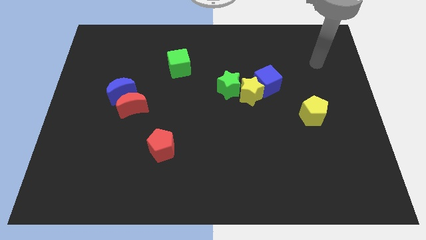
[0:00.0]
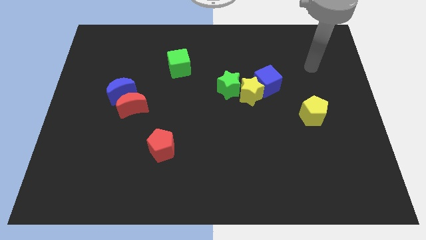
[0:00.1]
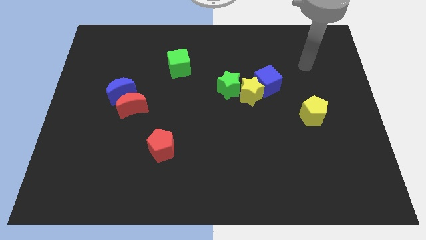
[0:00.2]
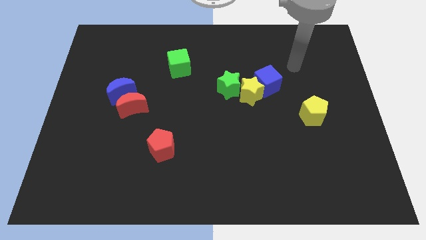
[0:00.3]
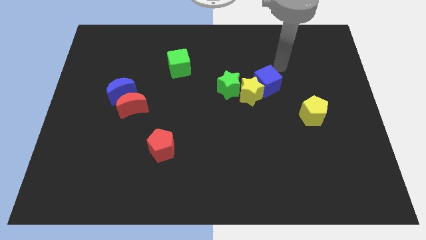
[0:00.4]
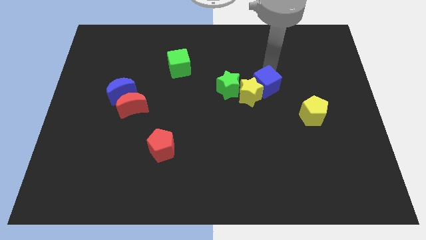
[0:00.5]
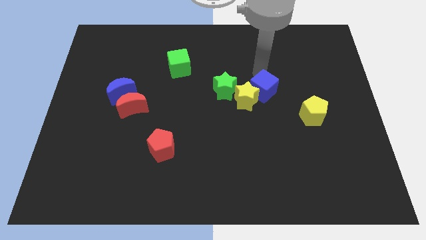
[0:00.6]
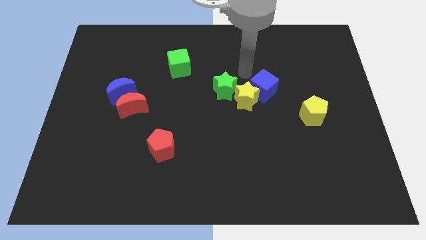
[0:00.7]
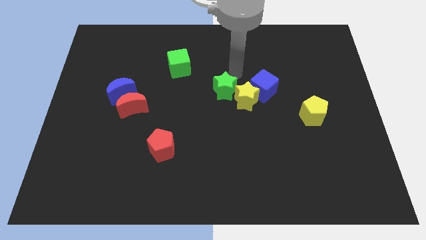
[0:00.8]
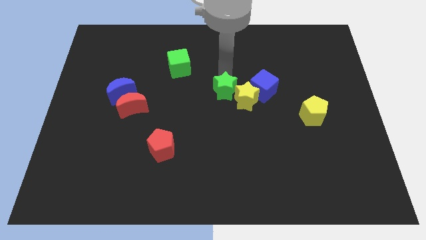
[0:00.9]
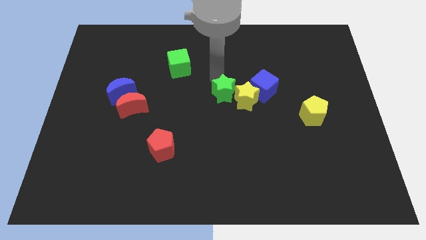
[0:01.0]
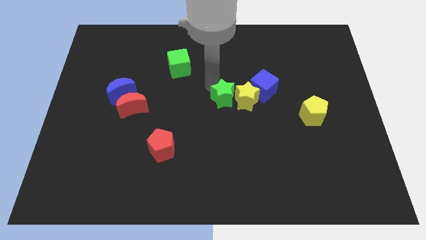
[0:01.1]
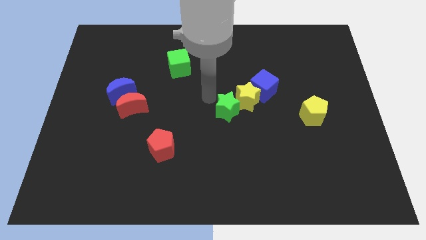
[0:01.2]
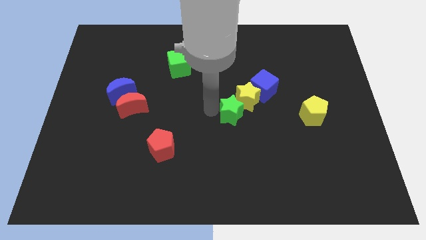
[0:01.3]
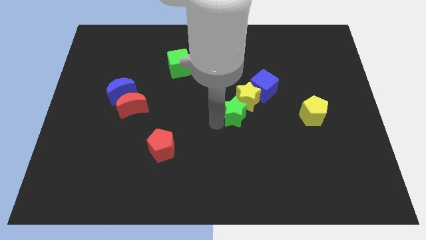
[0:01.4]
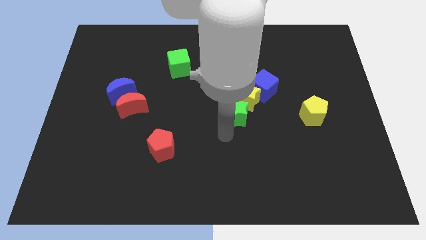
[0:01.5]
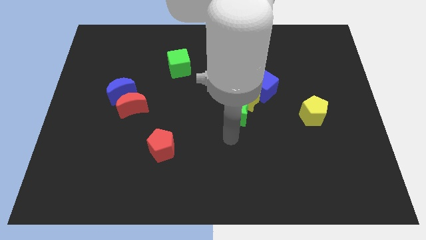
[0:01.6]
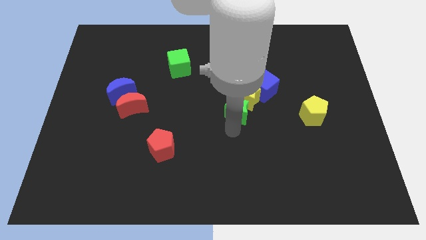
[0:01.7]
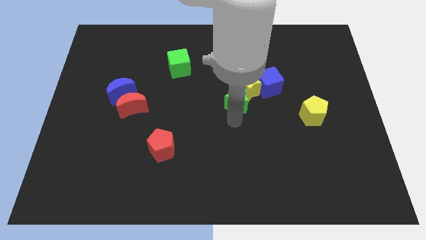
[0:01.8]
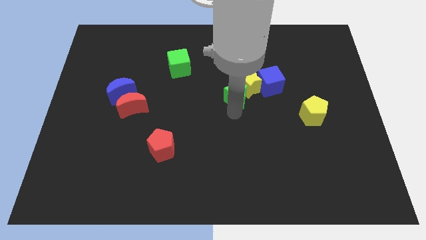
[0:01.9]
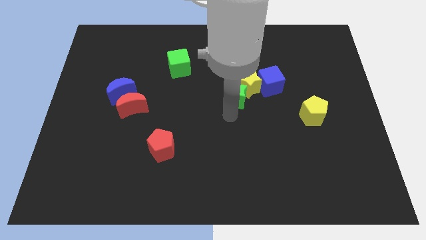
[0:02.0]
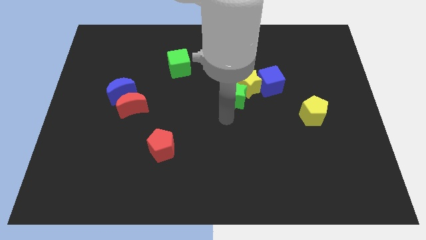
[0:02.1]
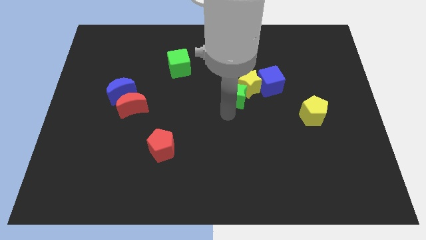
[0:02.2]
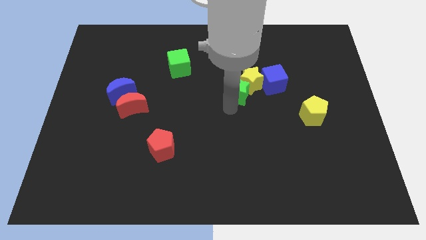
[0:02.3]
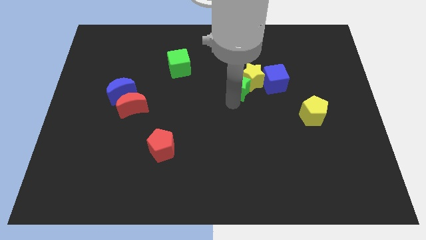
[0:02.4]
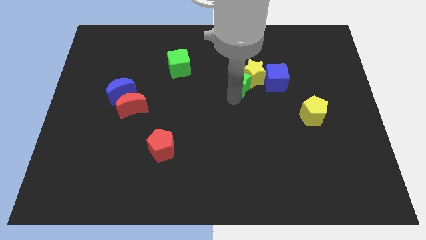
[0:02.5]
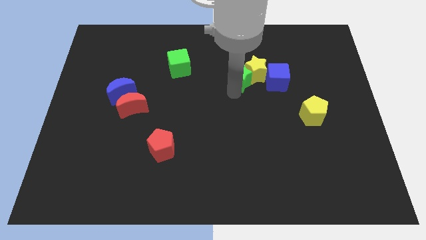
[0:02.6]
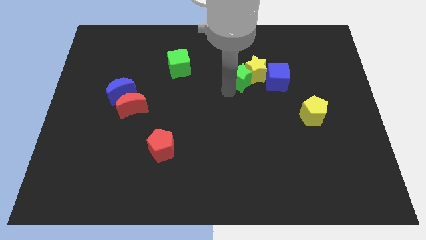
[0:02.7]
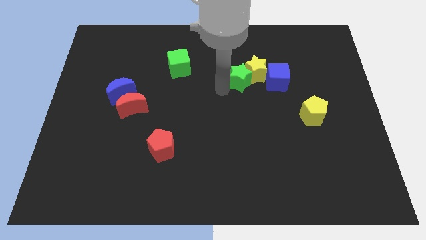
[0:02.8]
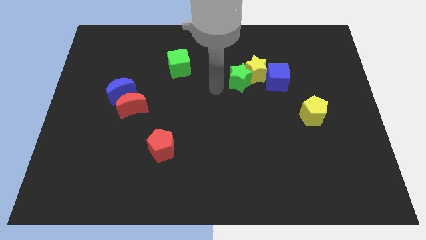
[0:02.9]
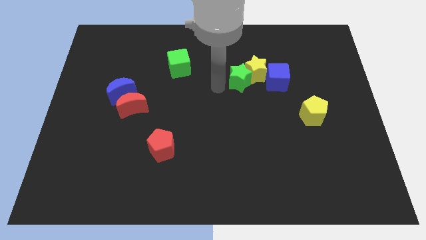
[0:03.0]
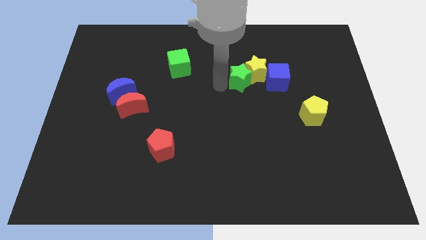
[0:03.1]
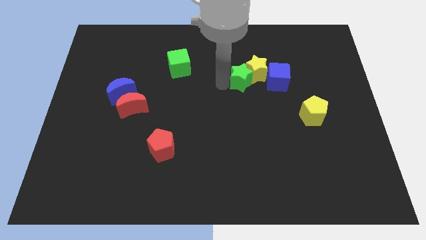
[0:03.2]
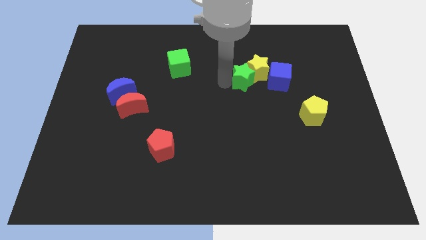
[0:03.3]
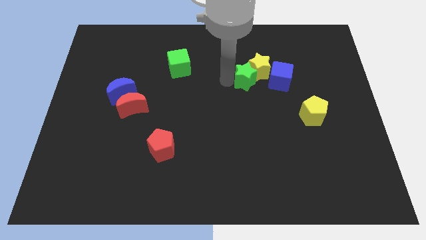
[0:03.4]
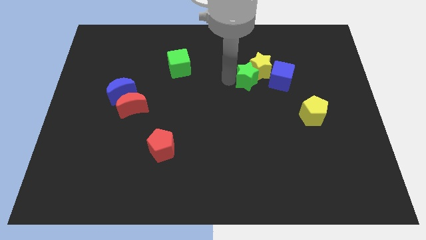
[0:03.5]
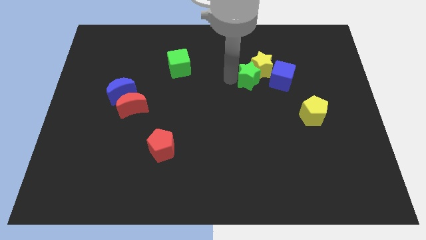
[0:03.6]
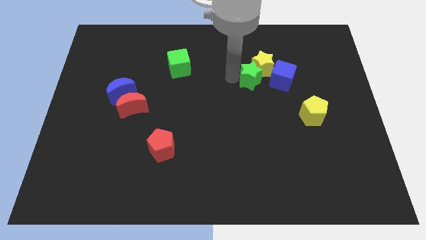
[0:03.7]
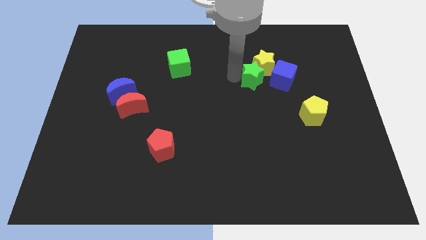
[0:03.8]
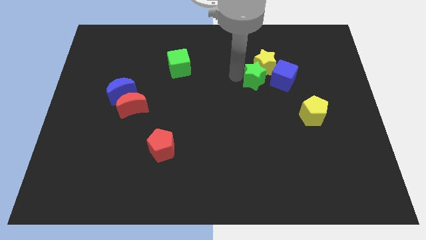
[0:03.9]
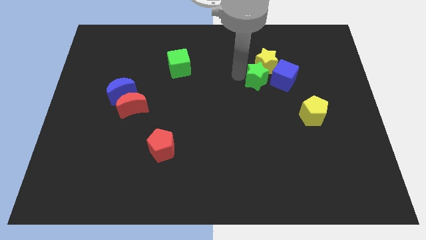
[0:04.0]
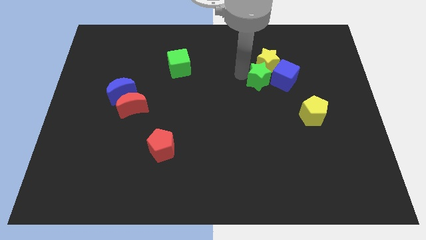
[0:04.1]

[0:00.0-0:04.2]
move the green star a little bit to the right

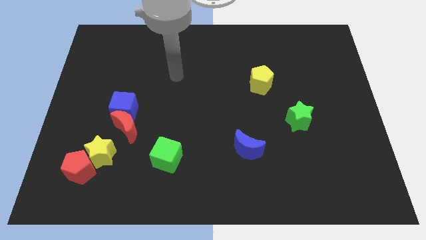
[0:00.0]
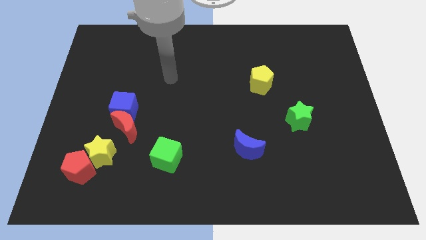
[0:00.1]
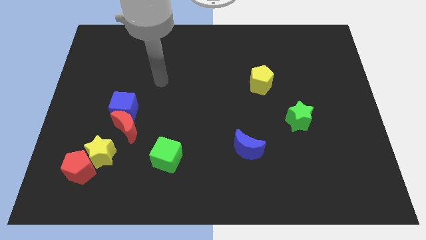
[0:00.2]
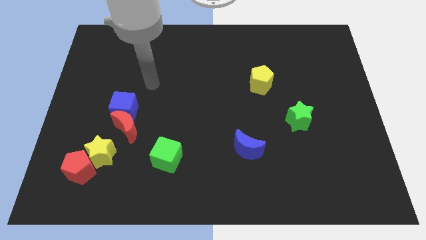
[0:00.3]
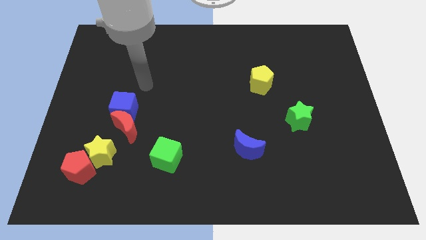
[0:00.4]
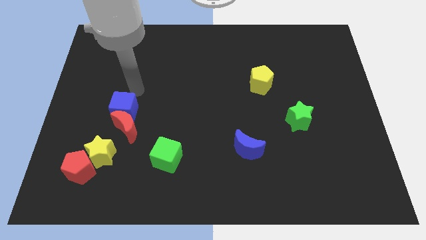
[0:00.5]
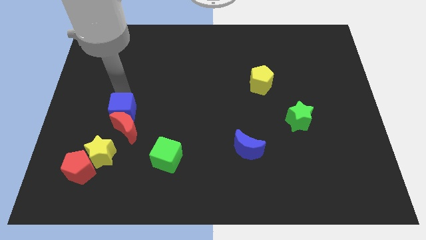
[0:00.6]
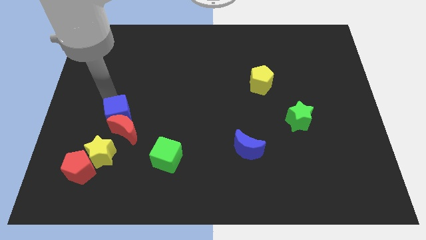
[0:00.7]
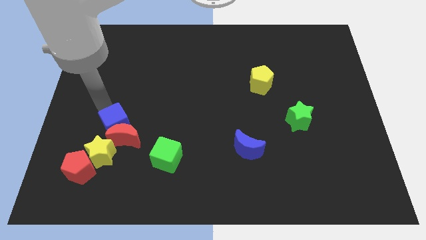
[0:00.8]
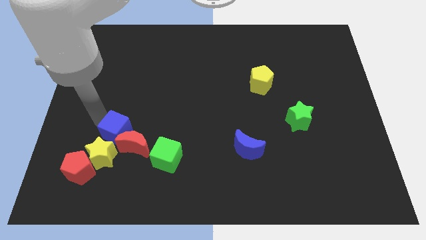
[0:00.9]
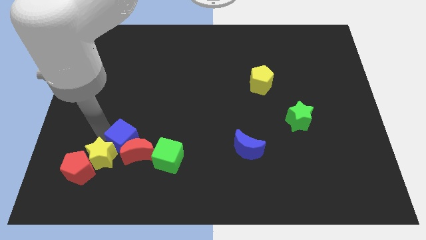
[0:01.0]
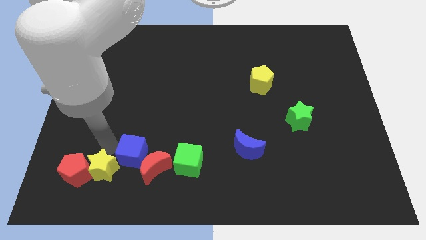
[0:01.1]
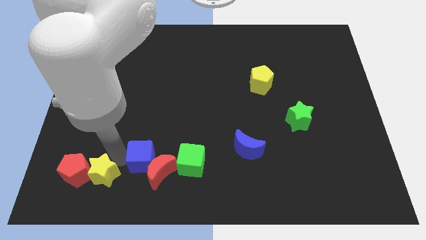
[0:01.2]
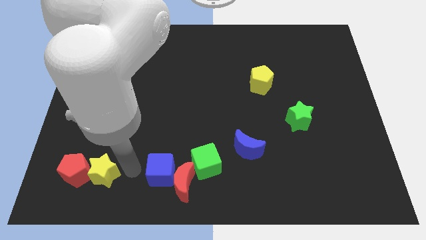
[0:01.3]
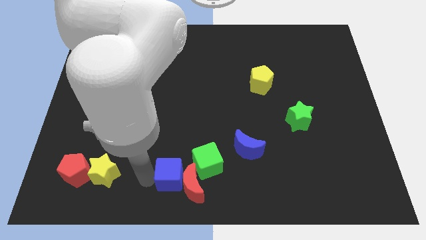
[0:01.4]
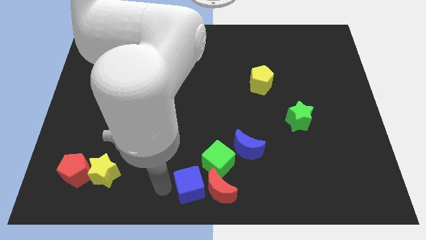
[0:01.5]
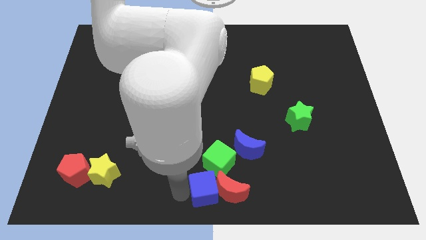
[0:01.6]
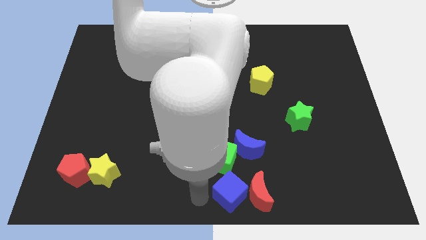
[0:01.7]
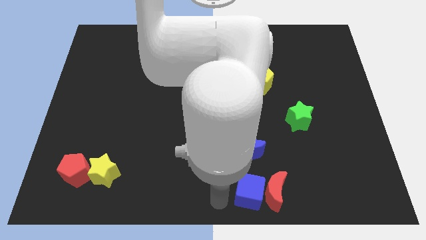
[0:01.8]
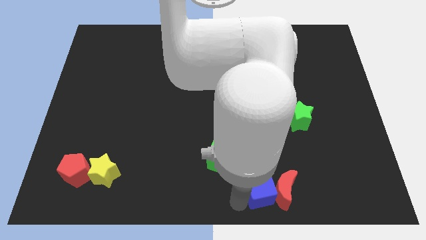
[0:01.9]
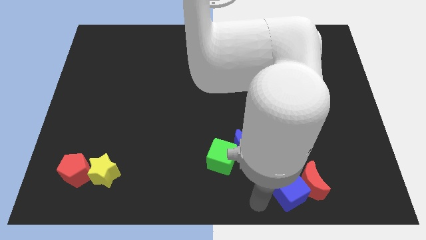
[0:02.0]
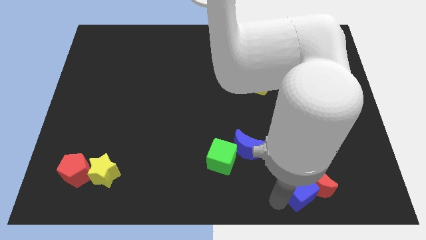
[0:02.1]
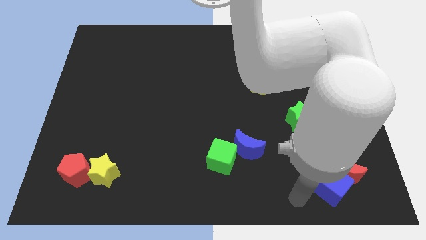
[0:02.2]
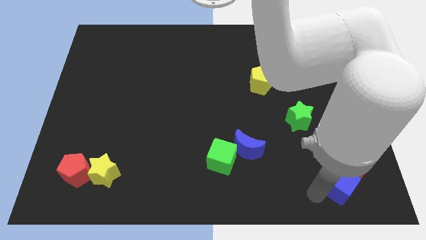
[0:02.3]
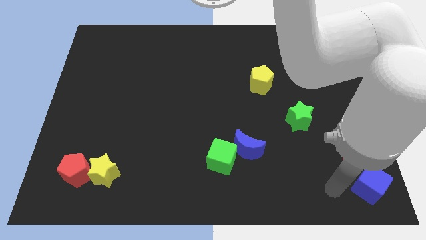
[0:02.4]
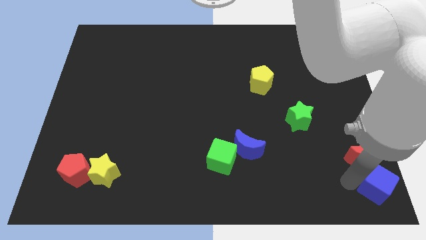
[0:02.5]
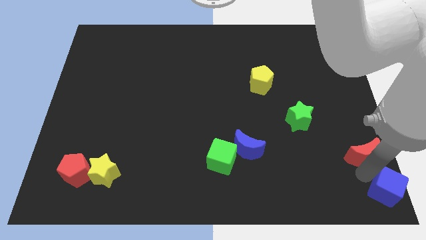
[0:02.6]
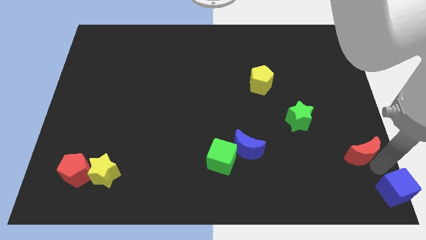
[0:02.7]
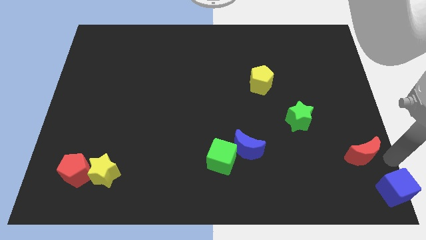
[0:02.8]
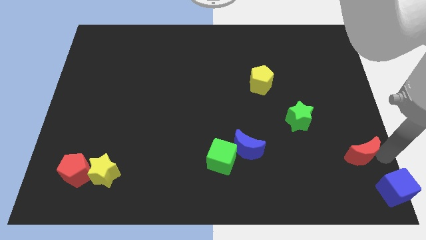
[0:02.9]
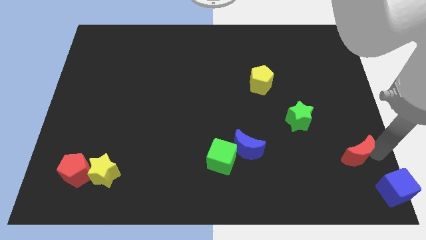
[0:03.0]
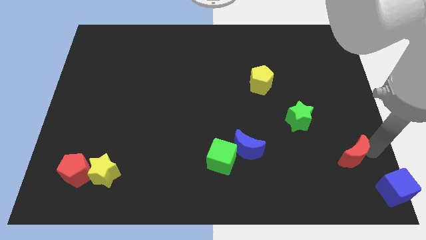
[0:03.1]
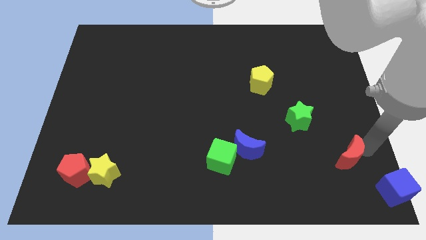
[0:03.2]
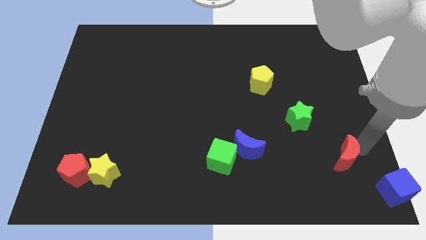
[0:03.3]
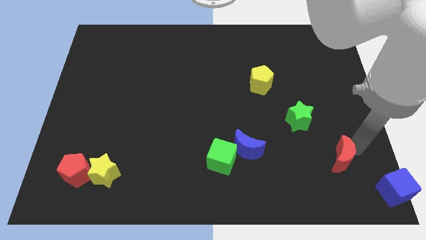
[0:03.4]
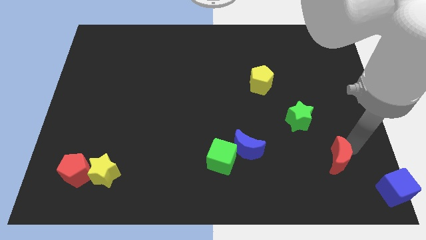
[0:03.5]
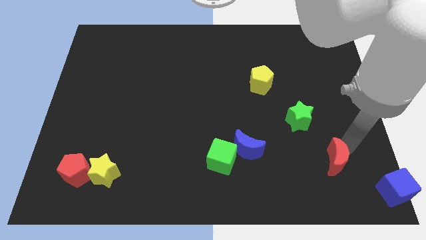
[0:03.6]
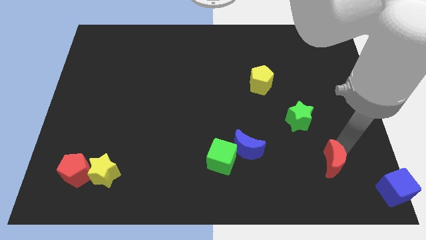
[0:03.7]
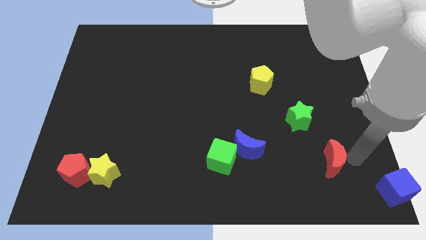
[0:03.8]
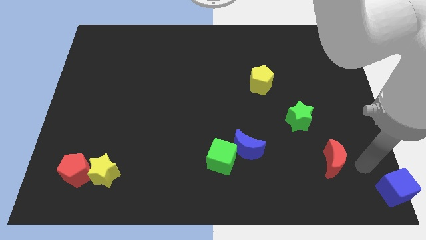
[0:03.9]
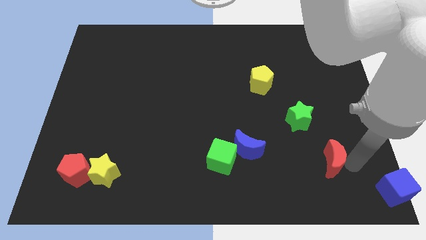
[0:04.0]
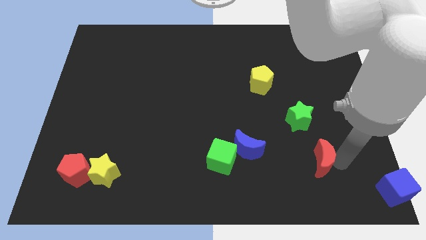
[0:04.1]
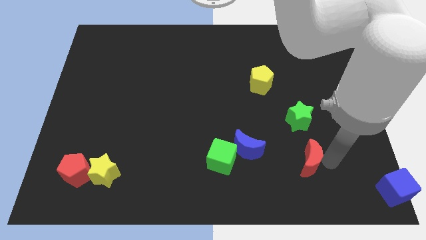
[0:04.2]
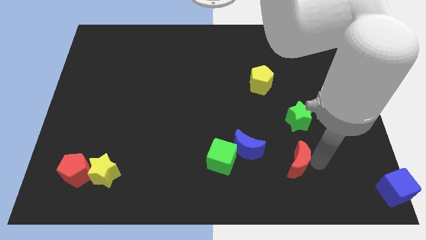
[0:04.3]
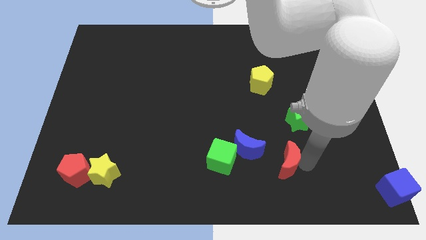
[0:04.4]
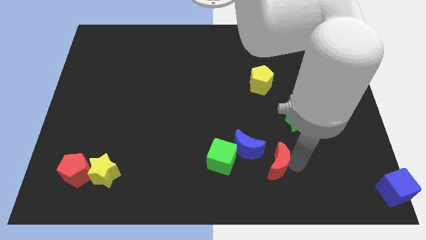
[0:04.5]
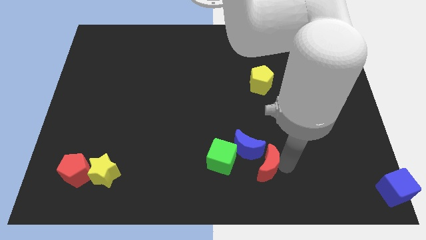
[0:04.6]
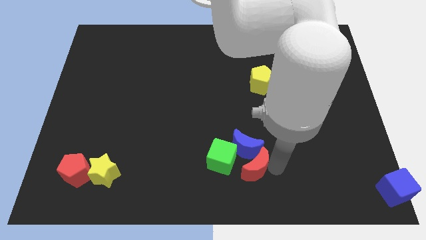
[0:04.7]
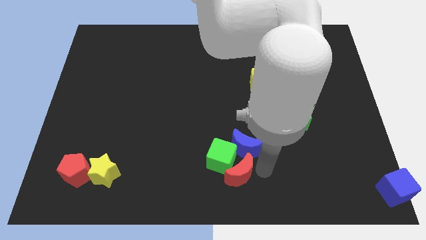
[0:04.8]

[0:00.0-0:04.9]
push the red moon to the right a little
